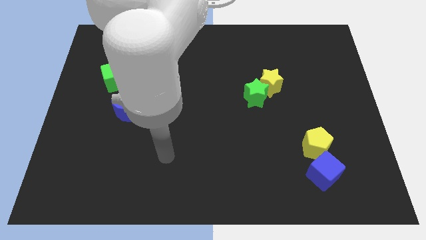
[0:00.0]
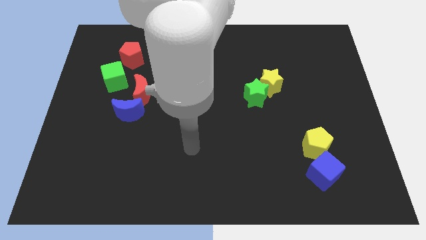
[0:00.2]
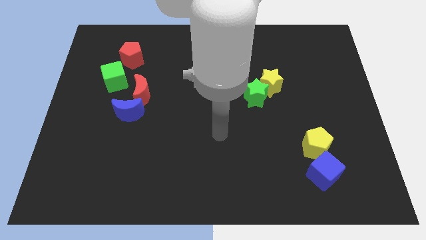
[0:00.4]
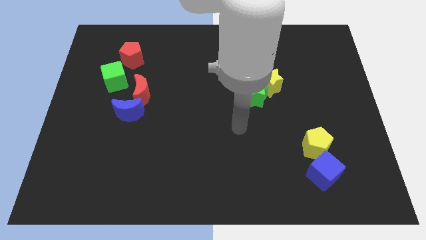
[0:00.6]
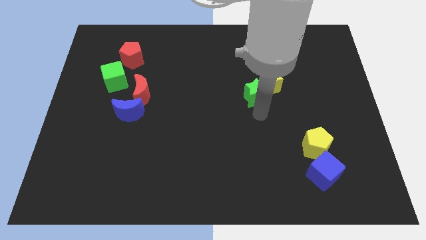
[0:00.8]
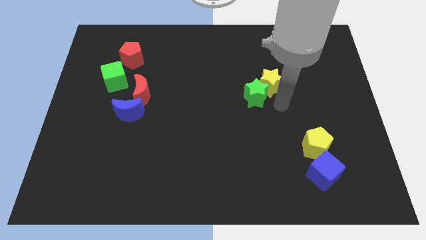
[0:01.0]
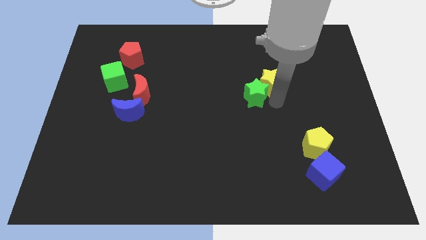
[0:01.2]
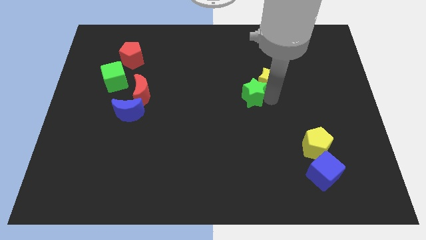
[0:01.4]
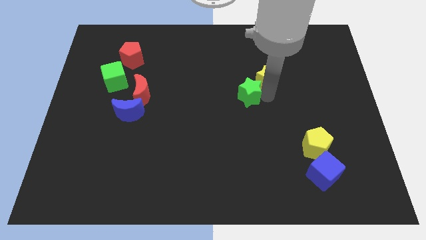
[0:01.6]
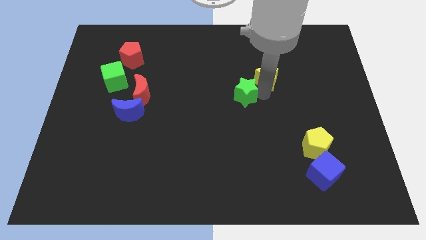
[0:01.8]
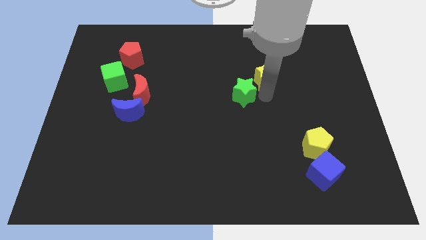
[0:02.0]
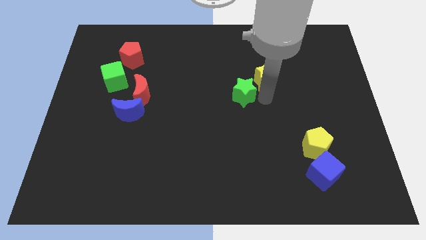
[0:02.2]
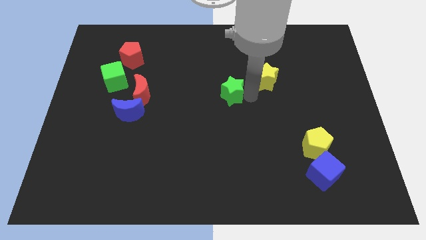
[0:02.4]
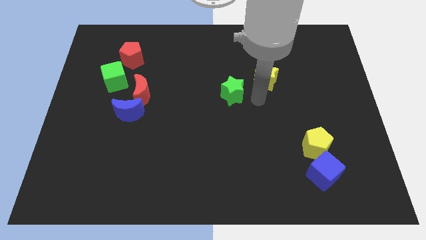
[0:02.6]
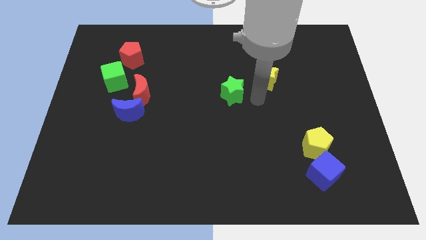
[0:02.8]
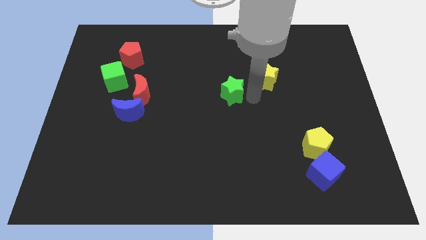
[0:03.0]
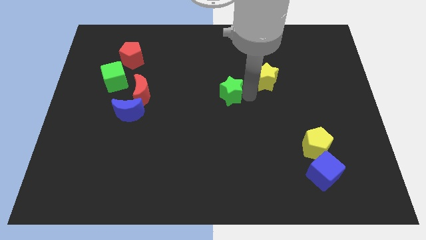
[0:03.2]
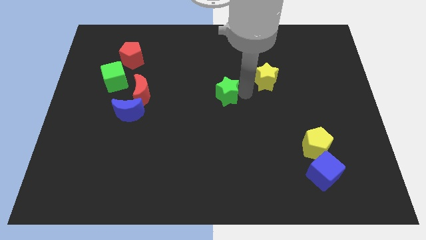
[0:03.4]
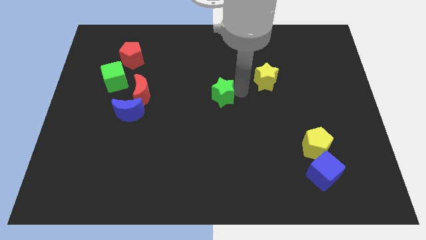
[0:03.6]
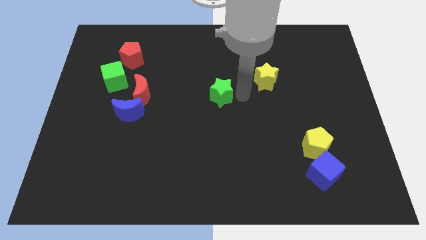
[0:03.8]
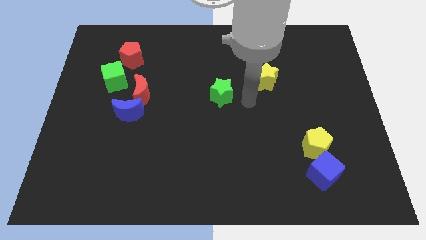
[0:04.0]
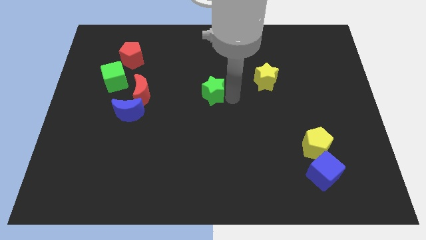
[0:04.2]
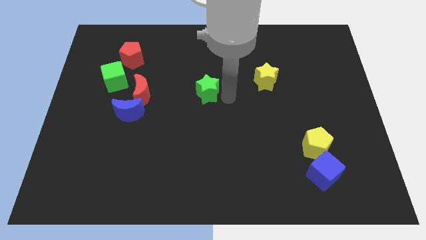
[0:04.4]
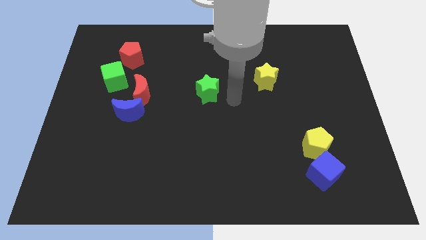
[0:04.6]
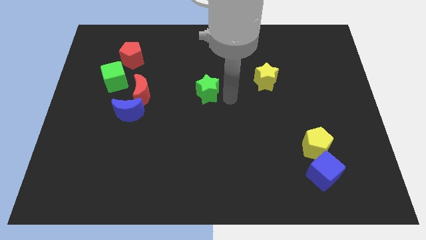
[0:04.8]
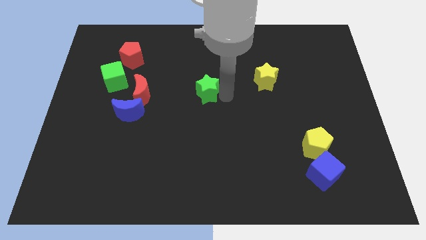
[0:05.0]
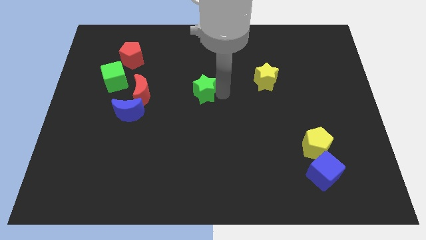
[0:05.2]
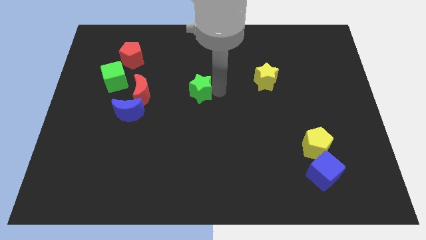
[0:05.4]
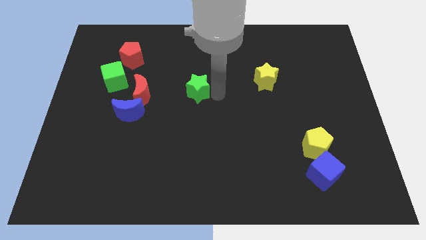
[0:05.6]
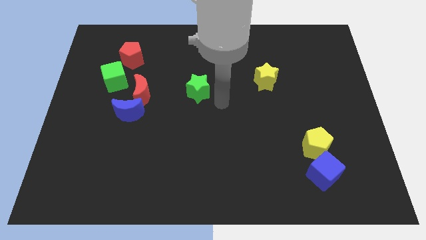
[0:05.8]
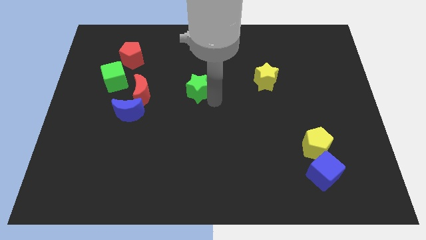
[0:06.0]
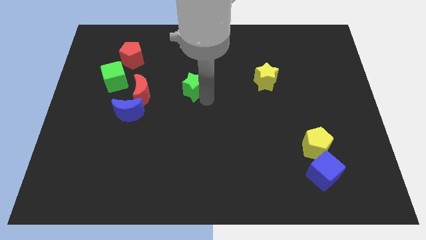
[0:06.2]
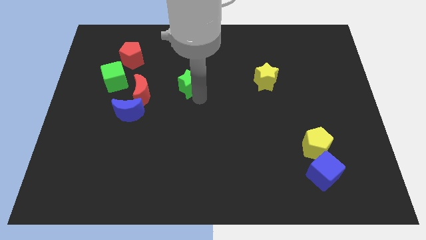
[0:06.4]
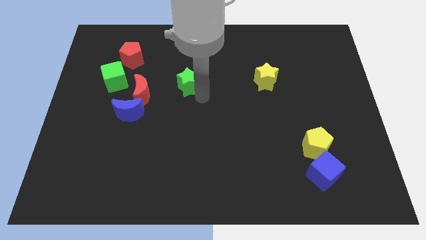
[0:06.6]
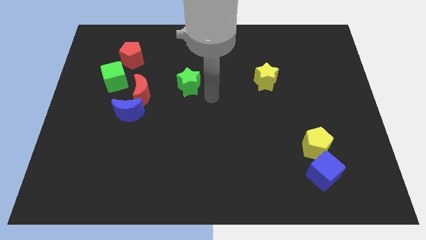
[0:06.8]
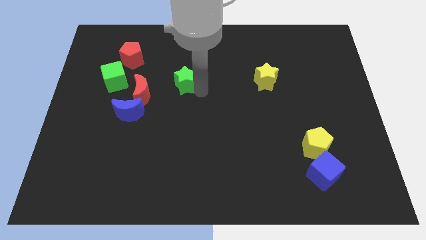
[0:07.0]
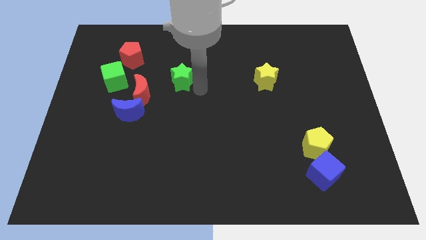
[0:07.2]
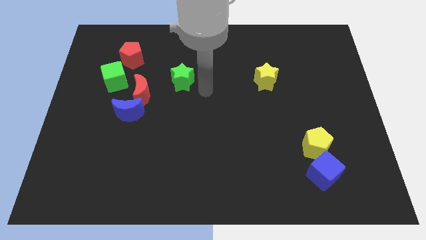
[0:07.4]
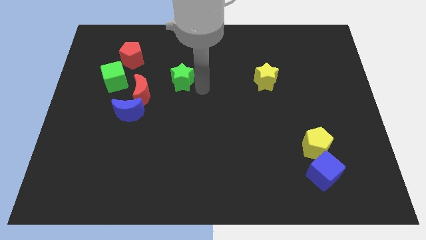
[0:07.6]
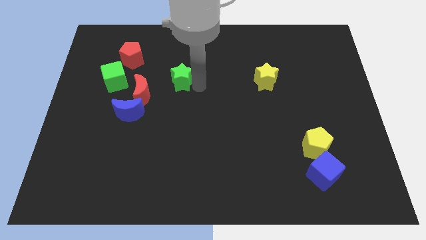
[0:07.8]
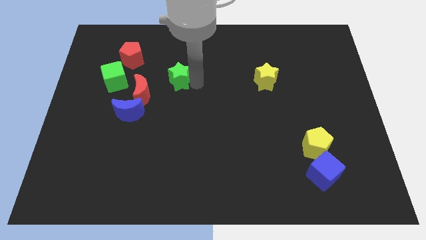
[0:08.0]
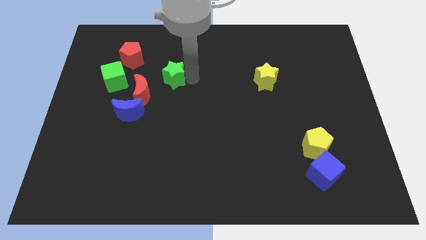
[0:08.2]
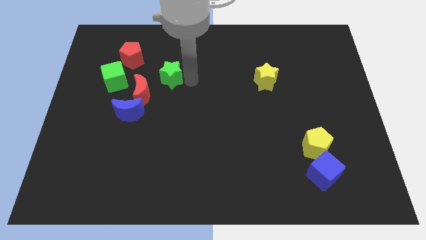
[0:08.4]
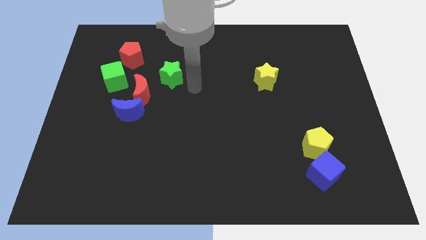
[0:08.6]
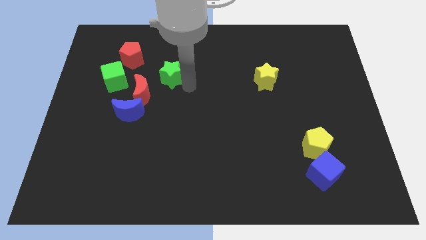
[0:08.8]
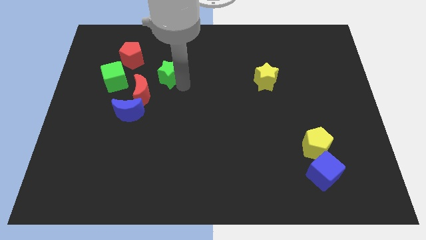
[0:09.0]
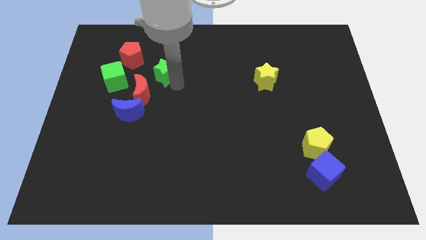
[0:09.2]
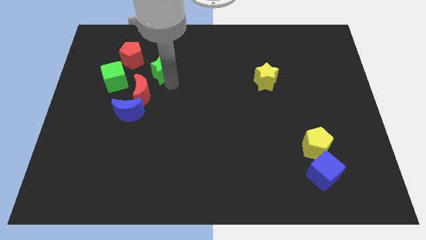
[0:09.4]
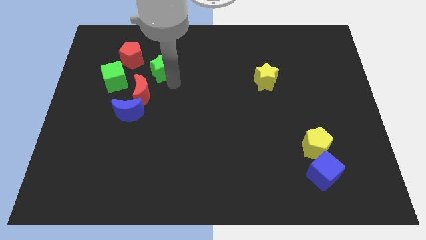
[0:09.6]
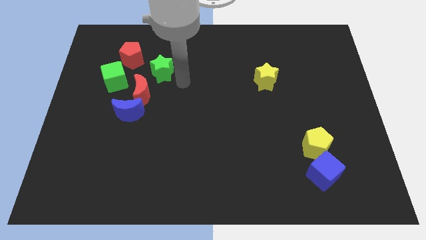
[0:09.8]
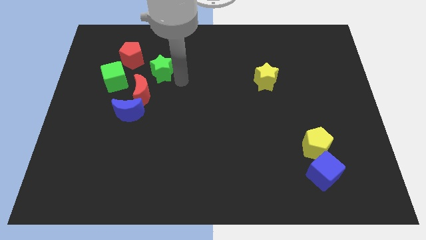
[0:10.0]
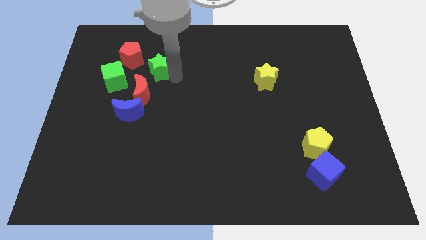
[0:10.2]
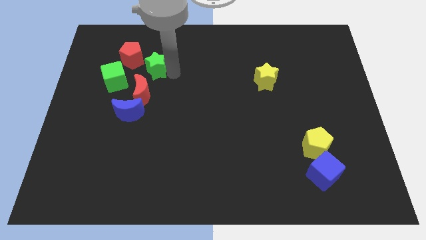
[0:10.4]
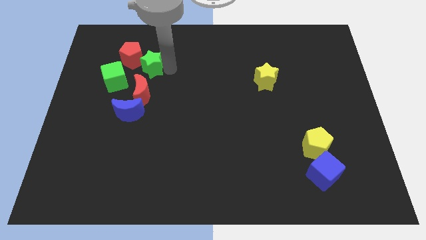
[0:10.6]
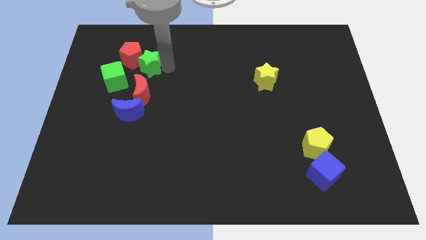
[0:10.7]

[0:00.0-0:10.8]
push the green star close to the red pentagon

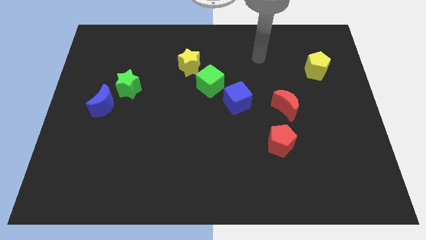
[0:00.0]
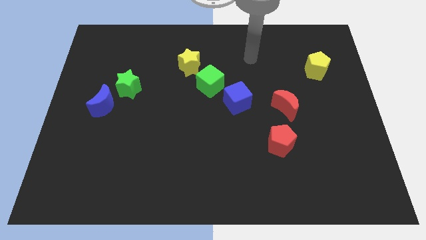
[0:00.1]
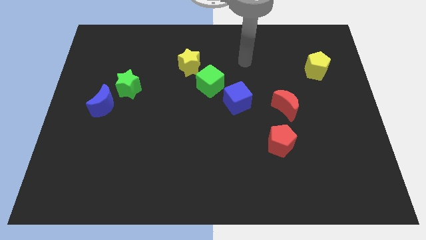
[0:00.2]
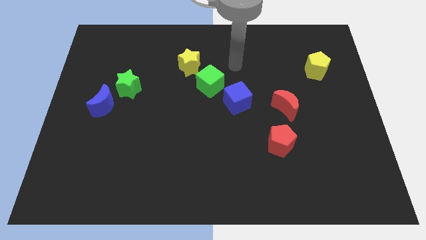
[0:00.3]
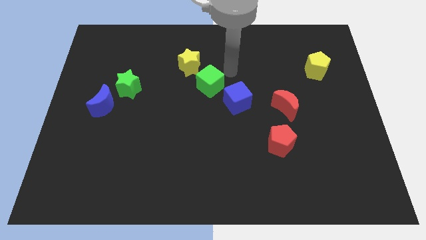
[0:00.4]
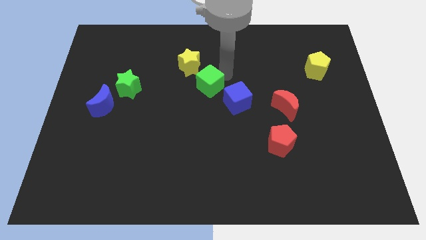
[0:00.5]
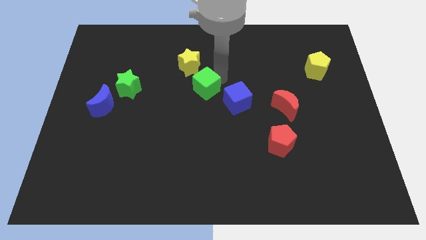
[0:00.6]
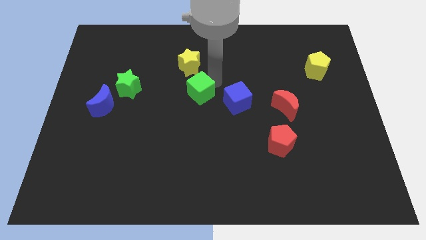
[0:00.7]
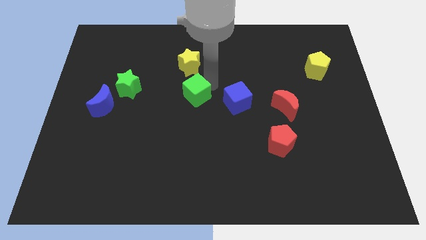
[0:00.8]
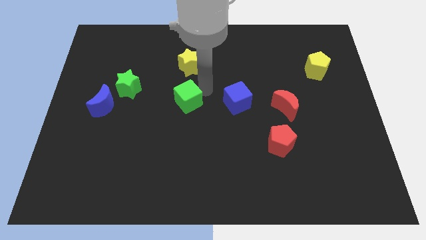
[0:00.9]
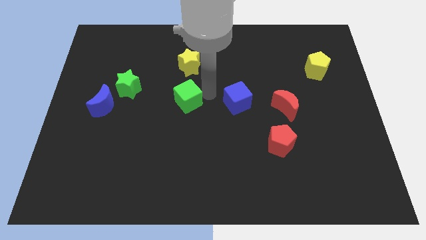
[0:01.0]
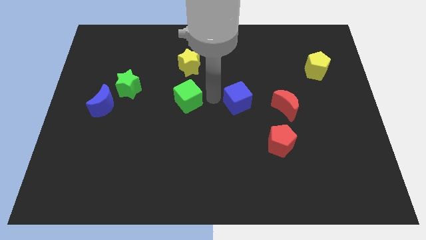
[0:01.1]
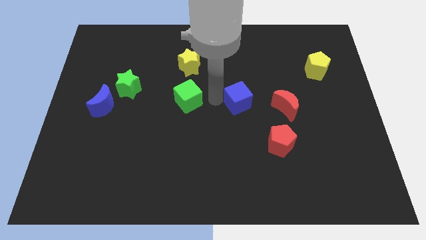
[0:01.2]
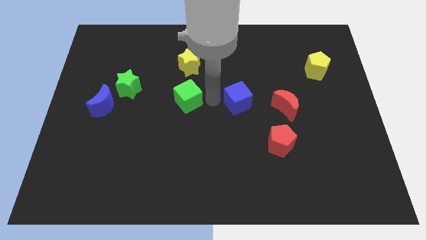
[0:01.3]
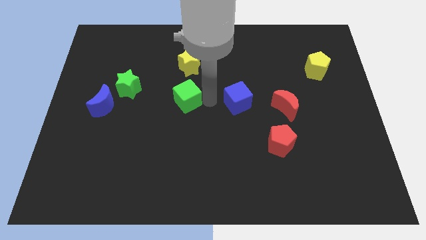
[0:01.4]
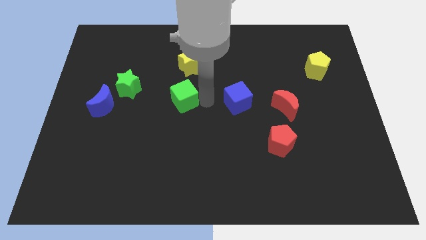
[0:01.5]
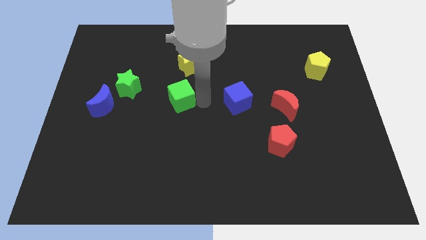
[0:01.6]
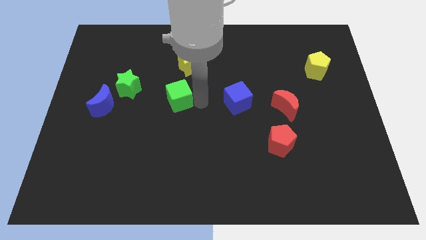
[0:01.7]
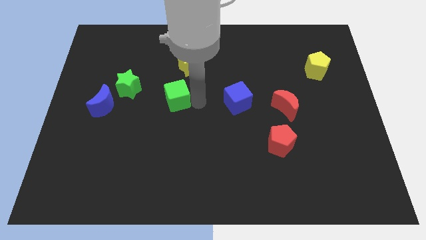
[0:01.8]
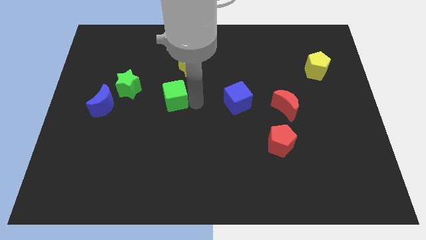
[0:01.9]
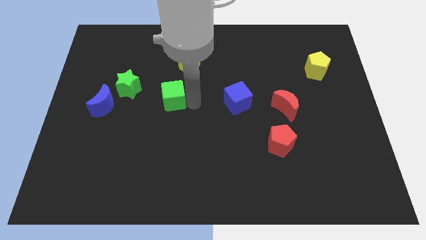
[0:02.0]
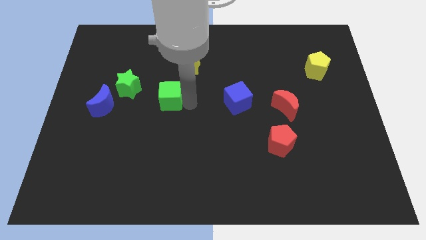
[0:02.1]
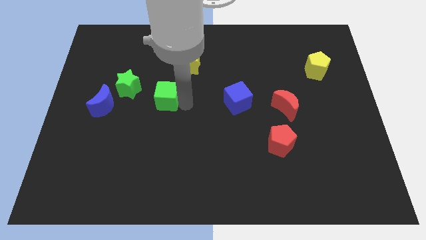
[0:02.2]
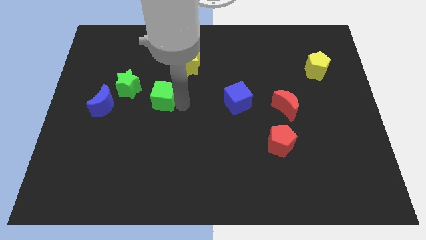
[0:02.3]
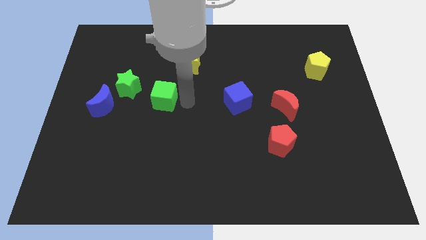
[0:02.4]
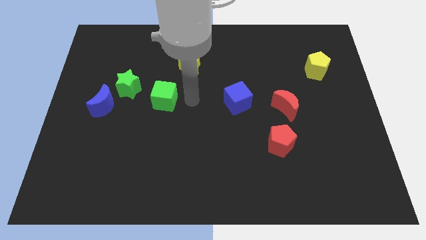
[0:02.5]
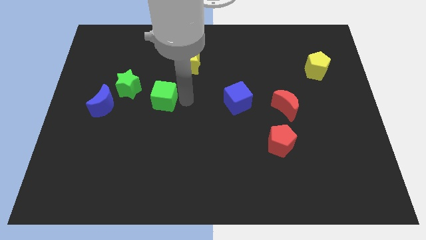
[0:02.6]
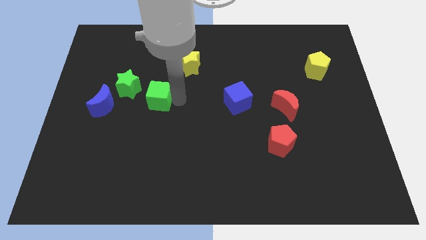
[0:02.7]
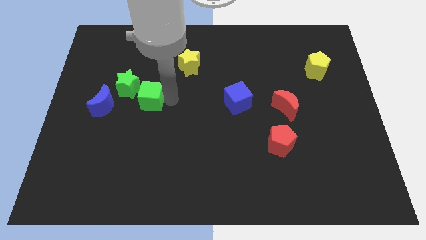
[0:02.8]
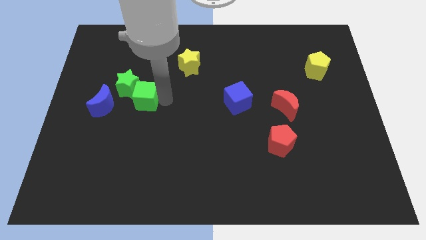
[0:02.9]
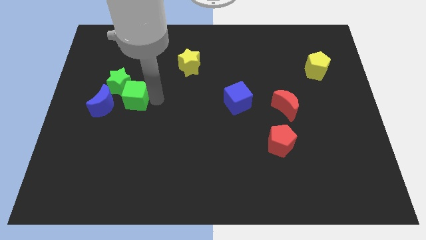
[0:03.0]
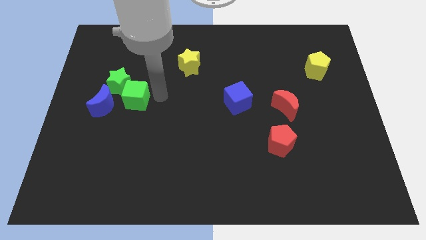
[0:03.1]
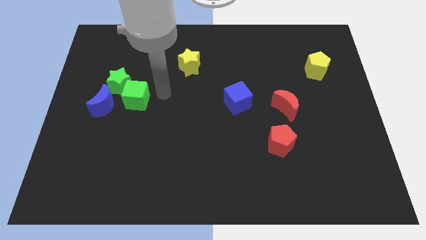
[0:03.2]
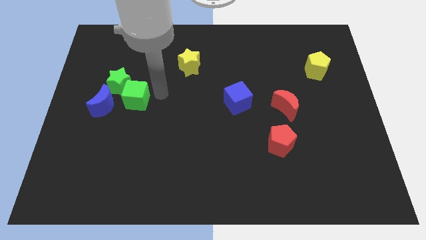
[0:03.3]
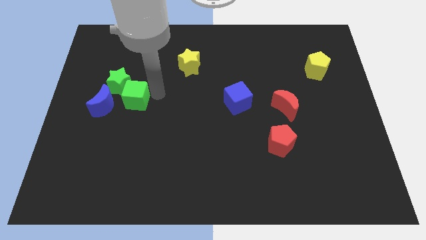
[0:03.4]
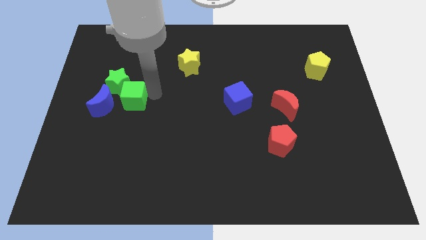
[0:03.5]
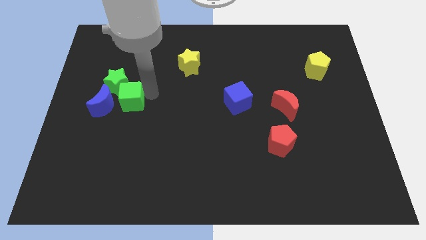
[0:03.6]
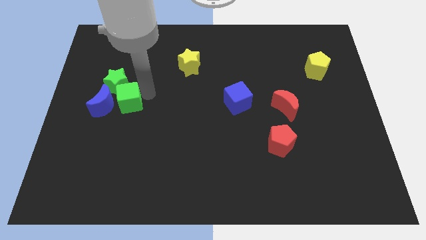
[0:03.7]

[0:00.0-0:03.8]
slide the green cube towards the blue moon
